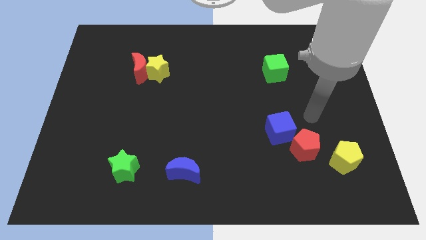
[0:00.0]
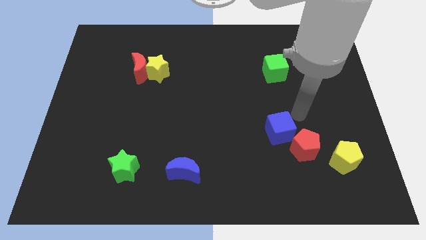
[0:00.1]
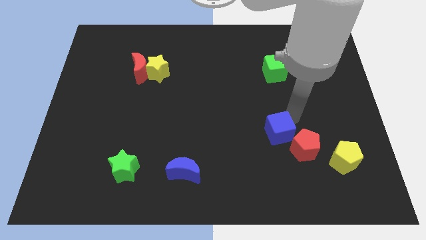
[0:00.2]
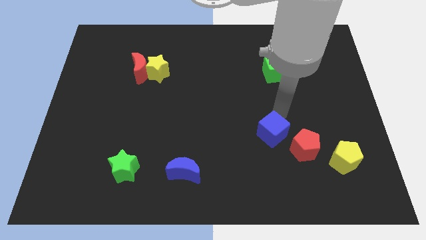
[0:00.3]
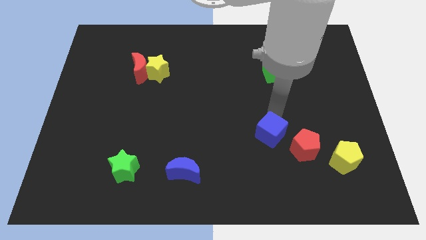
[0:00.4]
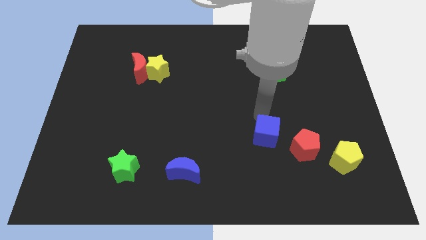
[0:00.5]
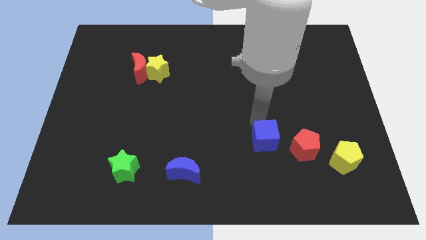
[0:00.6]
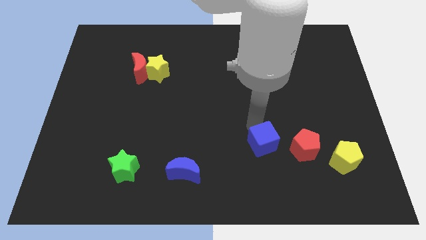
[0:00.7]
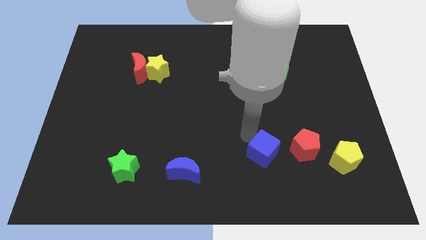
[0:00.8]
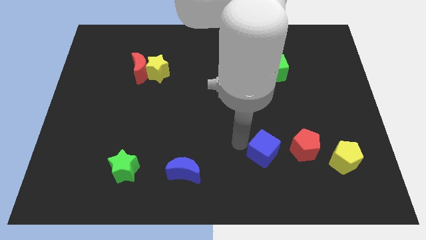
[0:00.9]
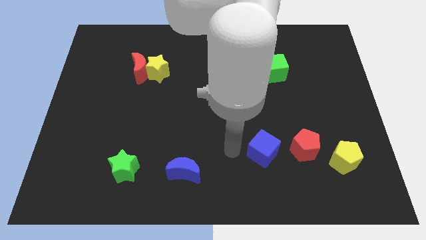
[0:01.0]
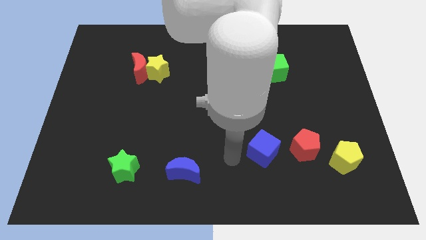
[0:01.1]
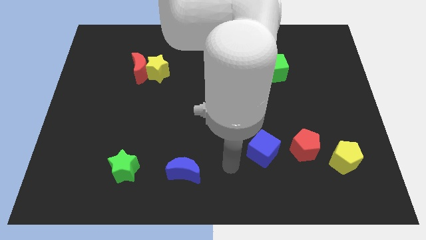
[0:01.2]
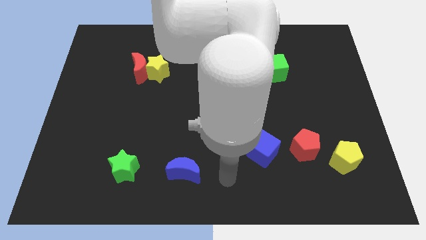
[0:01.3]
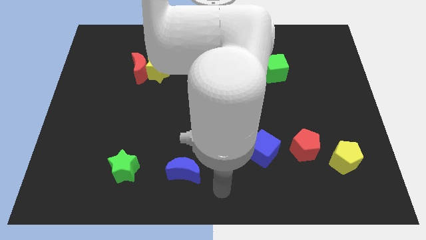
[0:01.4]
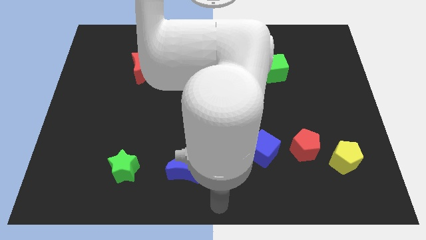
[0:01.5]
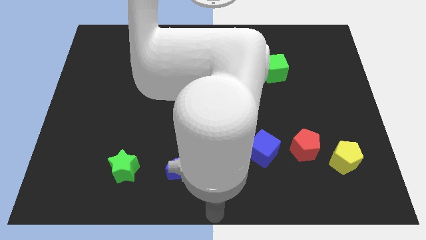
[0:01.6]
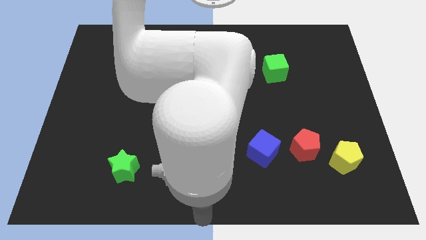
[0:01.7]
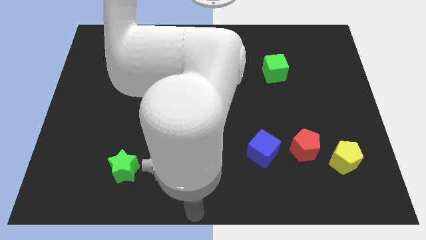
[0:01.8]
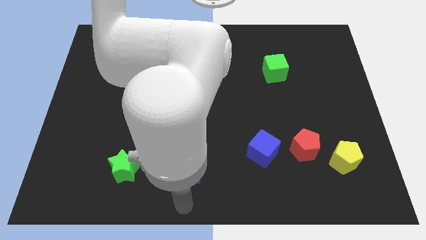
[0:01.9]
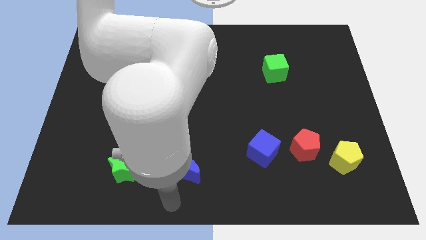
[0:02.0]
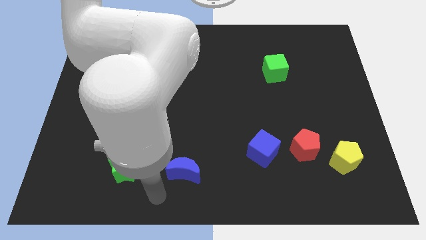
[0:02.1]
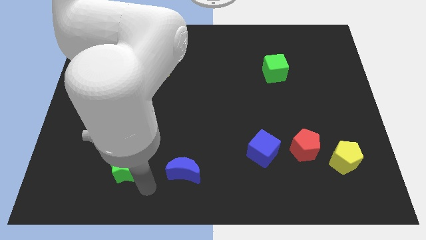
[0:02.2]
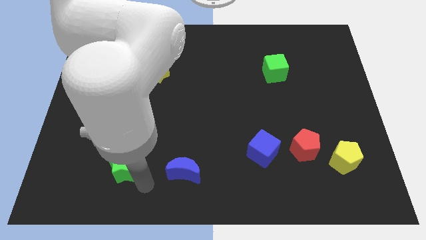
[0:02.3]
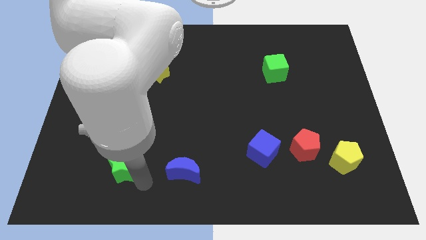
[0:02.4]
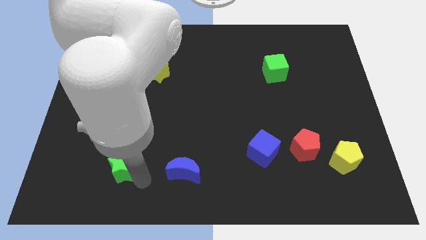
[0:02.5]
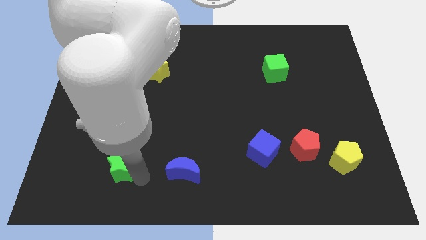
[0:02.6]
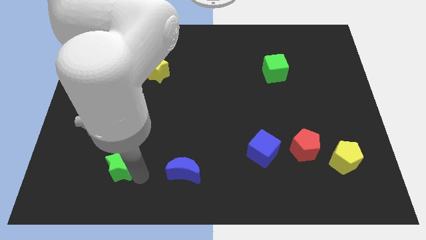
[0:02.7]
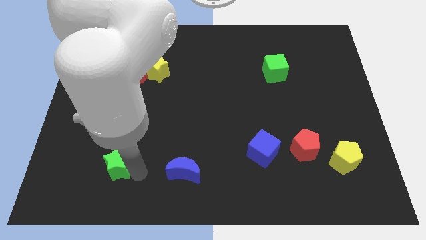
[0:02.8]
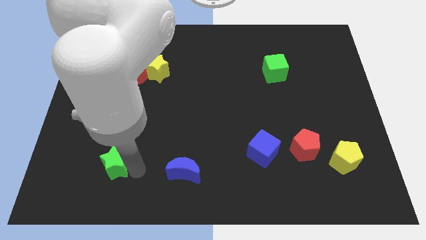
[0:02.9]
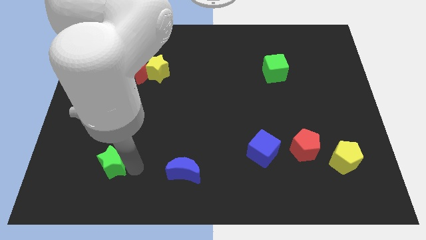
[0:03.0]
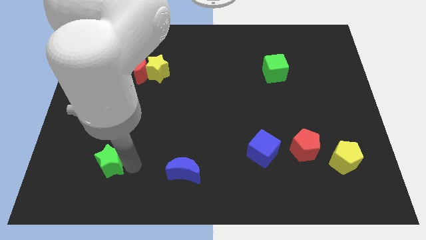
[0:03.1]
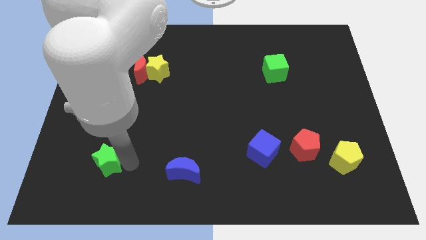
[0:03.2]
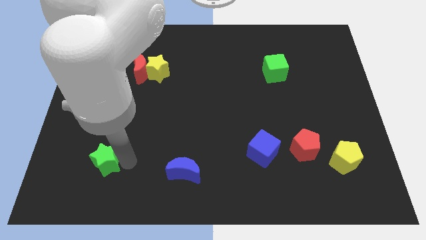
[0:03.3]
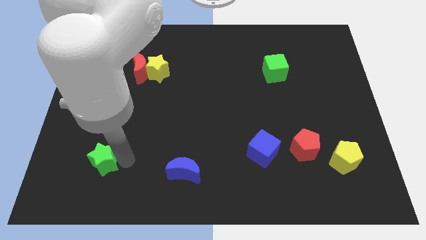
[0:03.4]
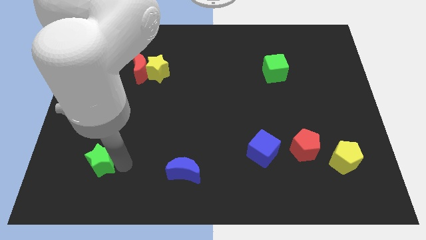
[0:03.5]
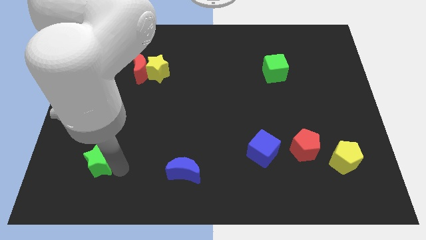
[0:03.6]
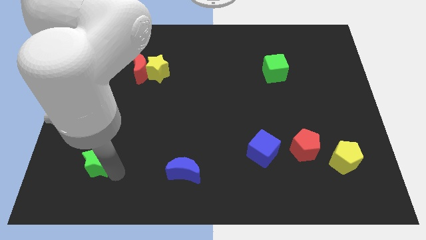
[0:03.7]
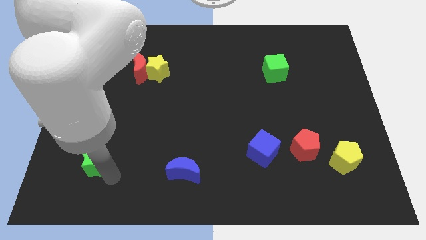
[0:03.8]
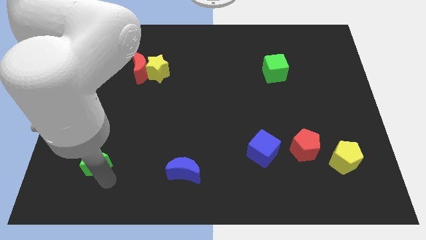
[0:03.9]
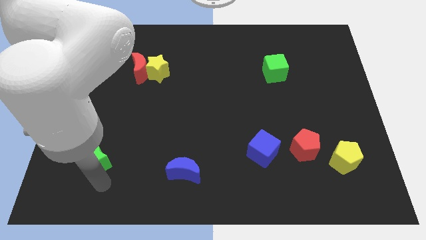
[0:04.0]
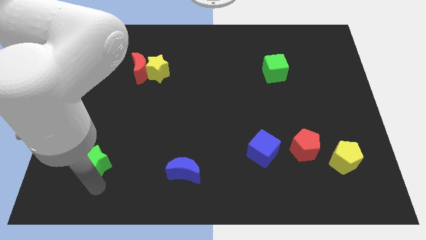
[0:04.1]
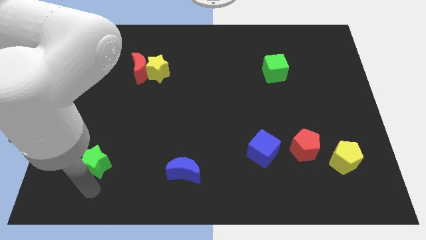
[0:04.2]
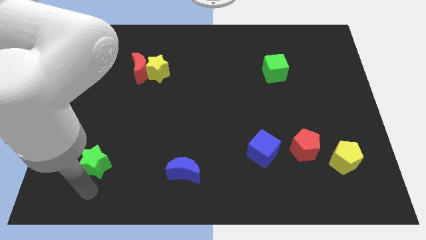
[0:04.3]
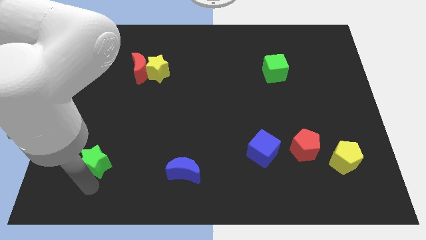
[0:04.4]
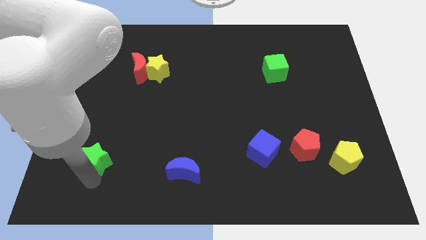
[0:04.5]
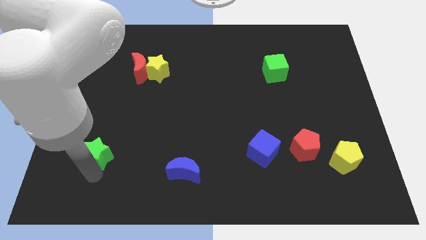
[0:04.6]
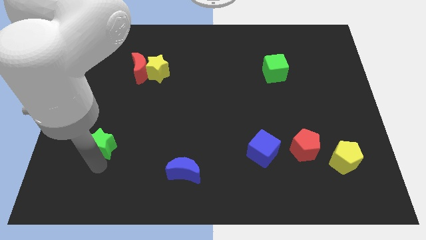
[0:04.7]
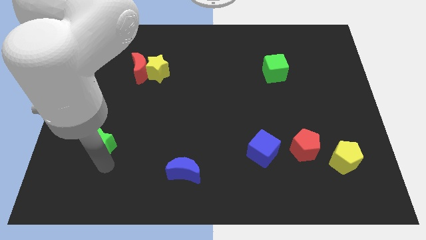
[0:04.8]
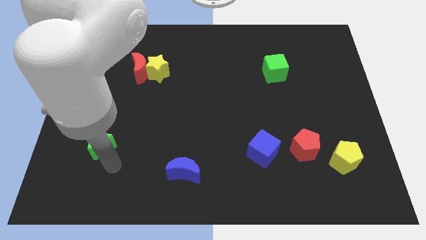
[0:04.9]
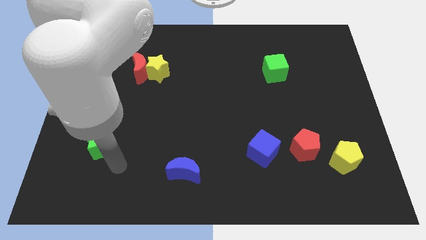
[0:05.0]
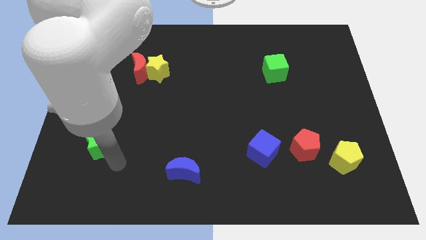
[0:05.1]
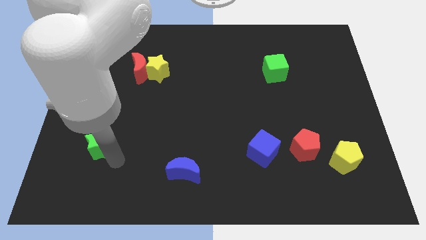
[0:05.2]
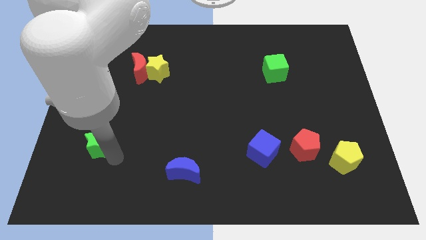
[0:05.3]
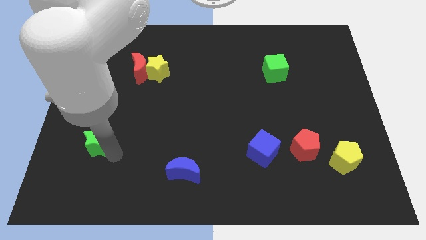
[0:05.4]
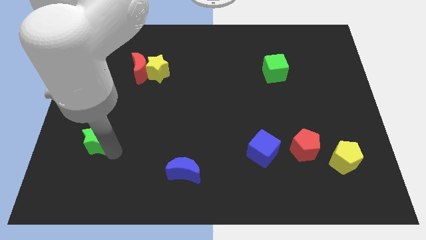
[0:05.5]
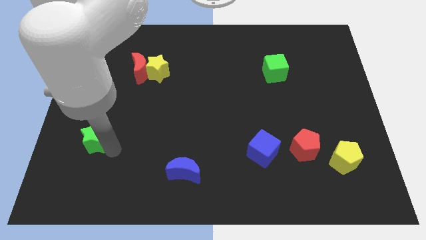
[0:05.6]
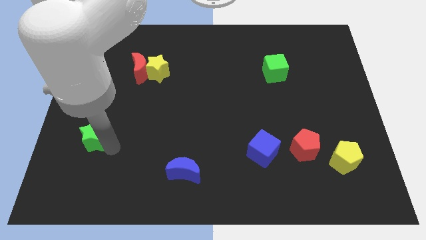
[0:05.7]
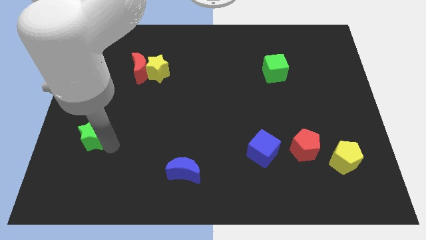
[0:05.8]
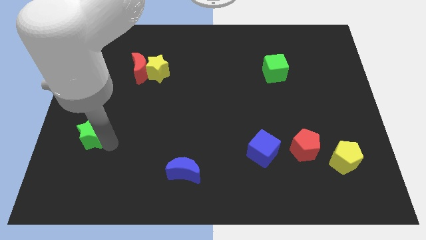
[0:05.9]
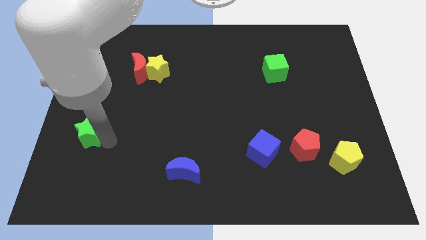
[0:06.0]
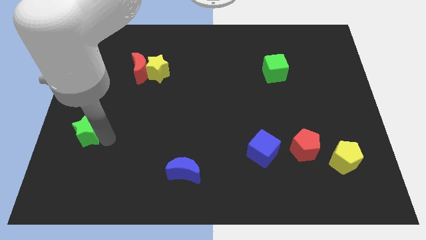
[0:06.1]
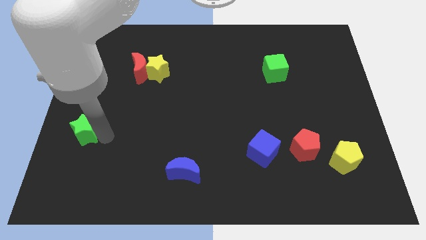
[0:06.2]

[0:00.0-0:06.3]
move the green star to the left side of the board

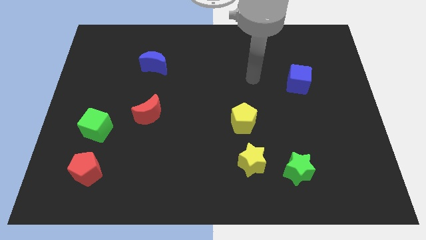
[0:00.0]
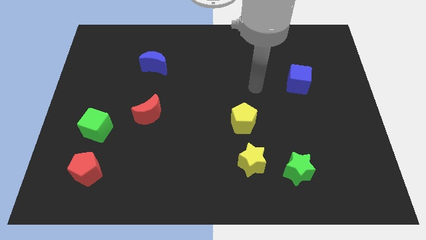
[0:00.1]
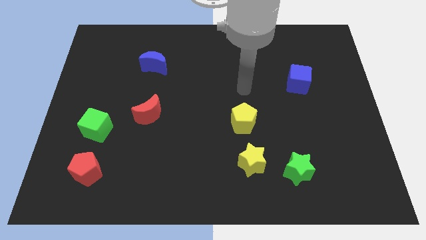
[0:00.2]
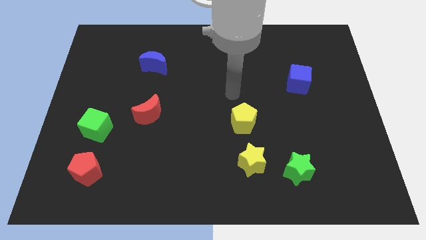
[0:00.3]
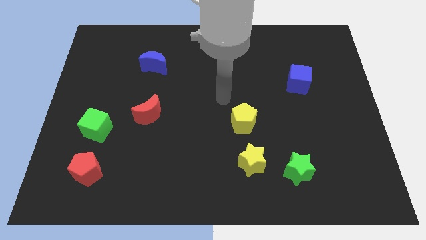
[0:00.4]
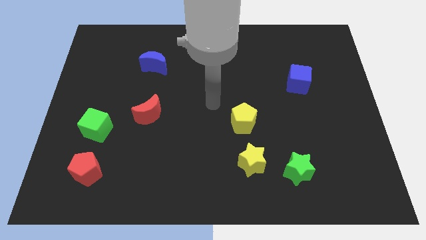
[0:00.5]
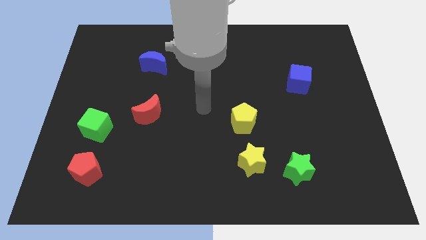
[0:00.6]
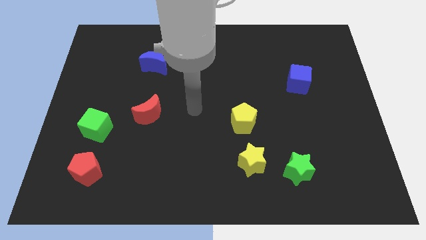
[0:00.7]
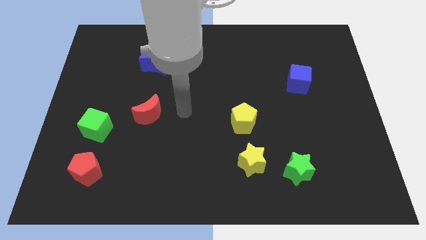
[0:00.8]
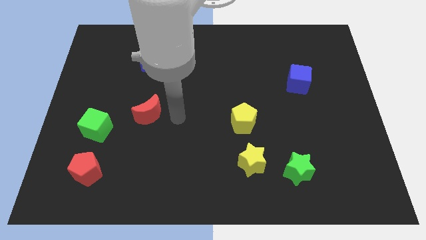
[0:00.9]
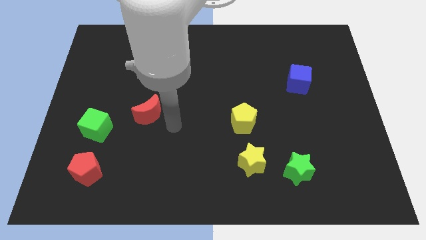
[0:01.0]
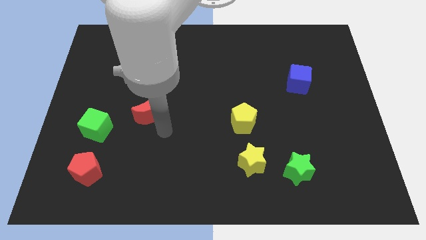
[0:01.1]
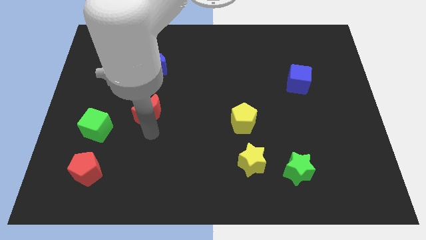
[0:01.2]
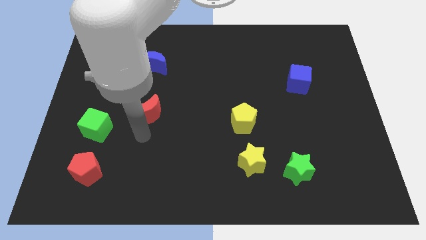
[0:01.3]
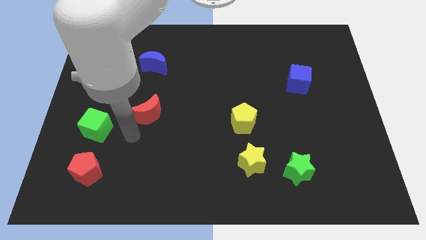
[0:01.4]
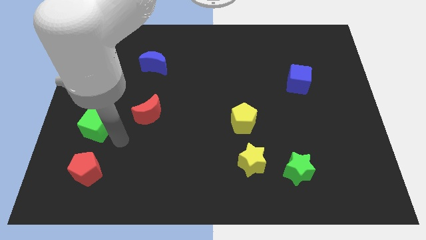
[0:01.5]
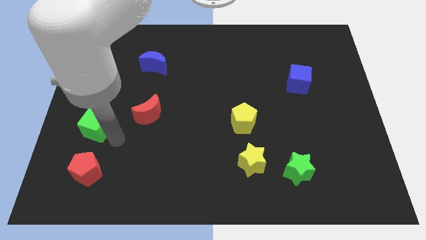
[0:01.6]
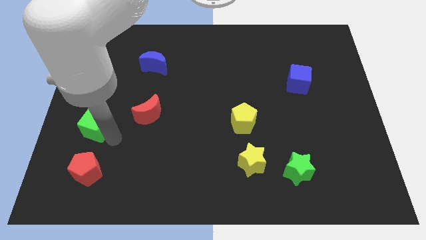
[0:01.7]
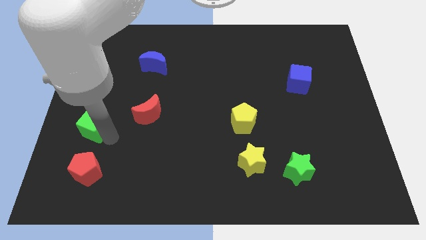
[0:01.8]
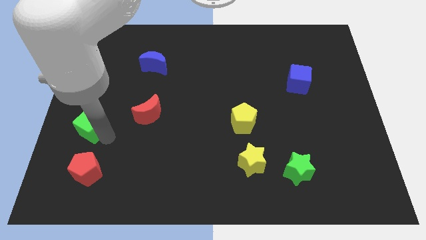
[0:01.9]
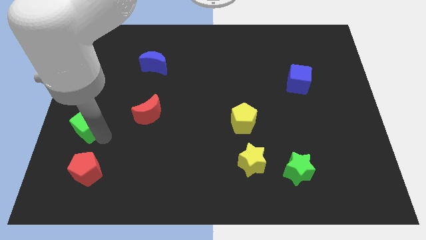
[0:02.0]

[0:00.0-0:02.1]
move the green cube to the left side of the board
